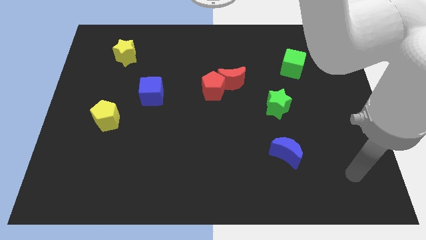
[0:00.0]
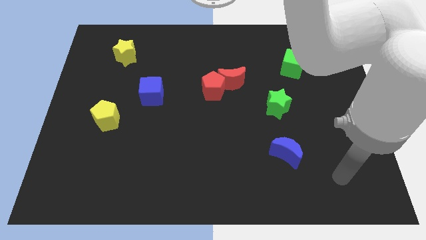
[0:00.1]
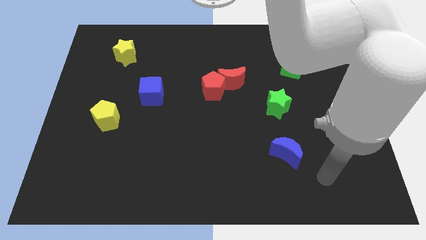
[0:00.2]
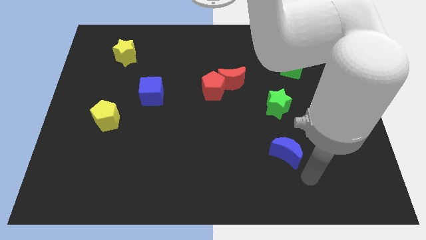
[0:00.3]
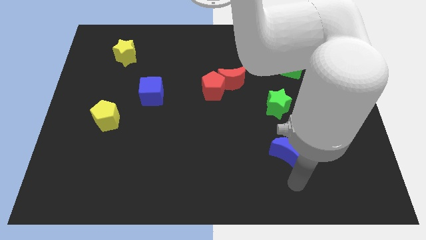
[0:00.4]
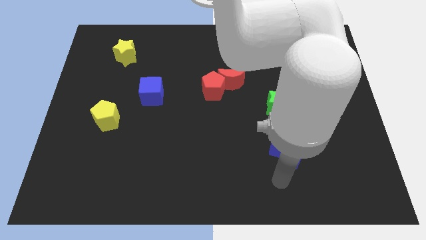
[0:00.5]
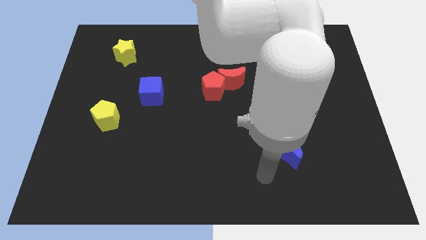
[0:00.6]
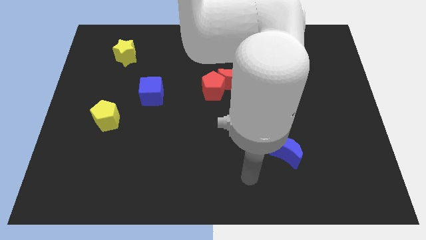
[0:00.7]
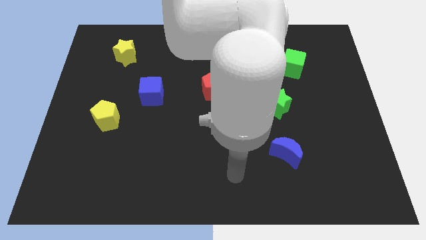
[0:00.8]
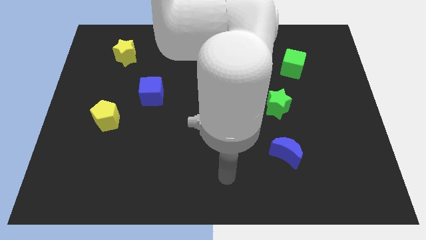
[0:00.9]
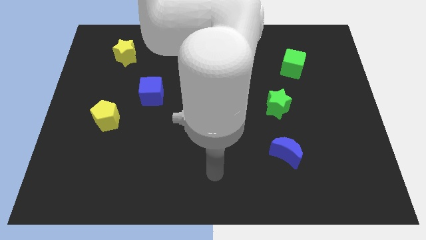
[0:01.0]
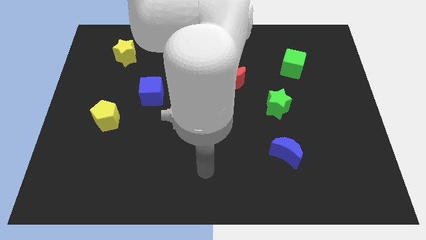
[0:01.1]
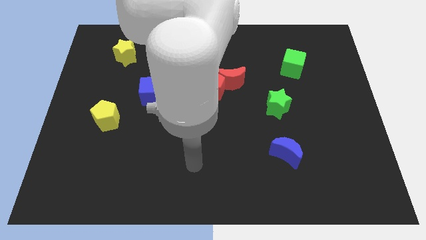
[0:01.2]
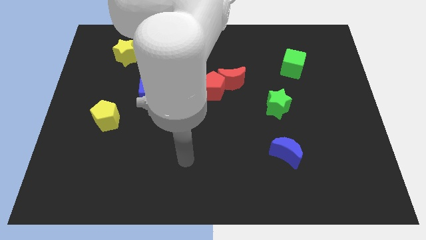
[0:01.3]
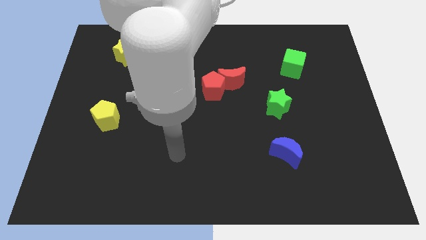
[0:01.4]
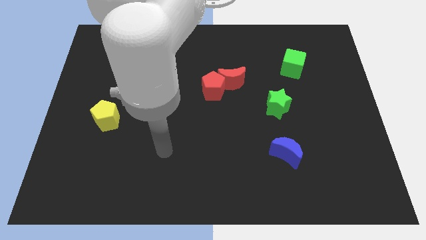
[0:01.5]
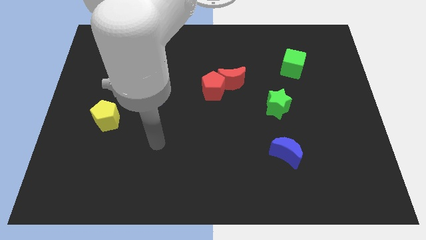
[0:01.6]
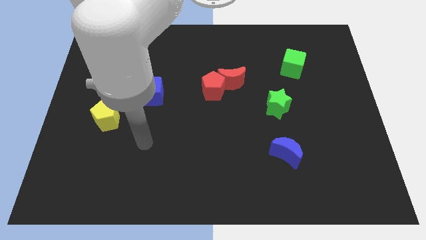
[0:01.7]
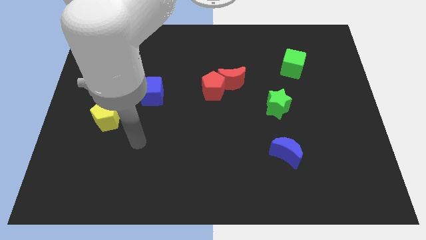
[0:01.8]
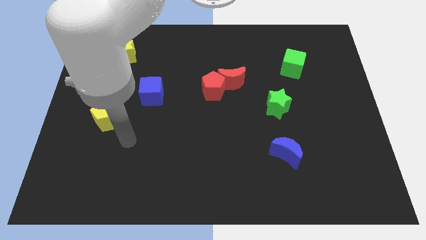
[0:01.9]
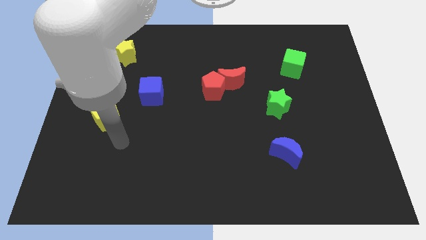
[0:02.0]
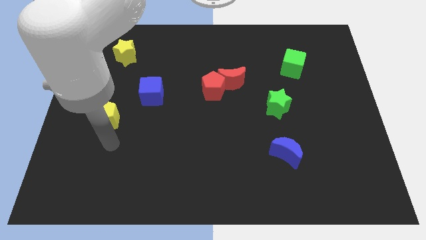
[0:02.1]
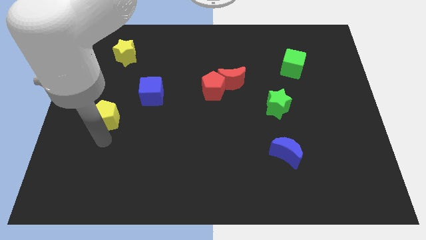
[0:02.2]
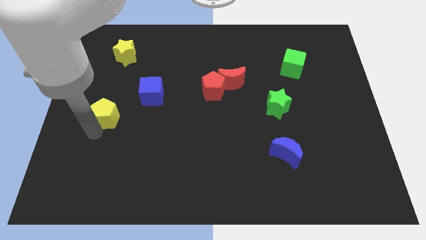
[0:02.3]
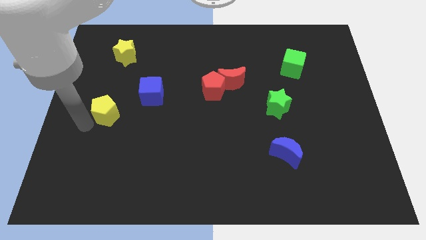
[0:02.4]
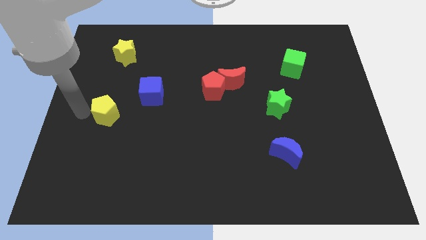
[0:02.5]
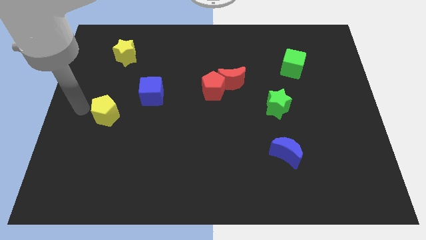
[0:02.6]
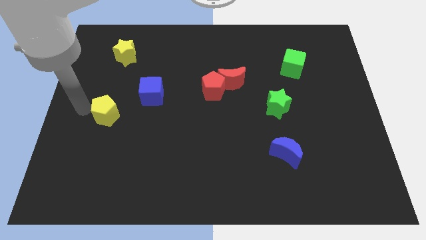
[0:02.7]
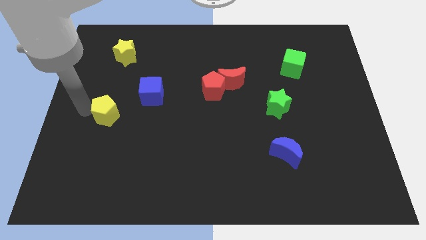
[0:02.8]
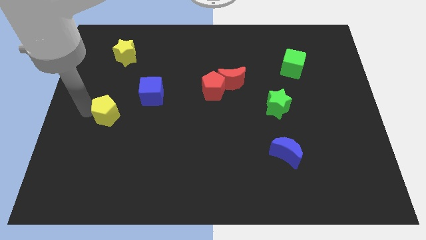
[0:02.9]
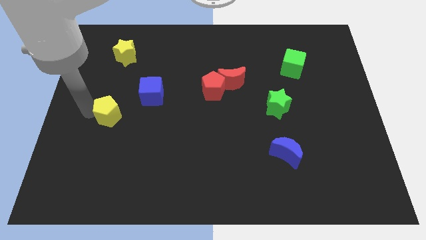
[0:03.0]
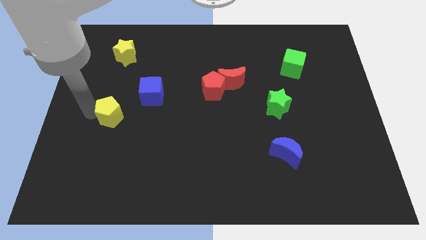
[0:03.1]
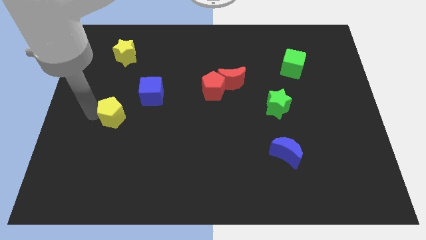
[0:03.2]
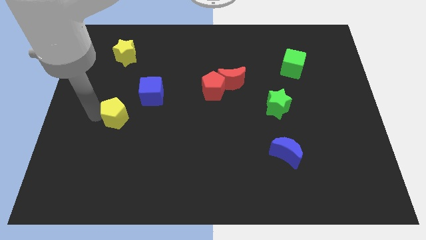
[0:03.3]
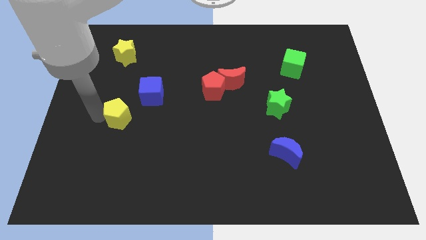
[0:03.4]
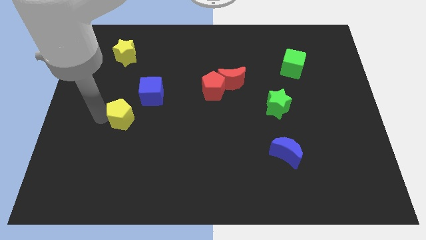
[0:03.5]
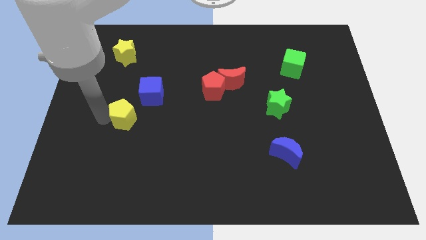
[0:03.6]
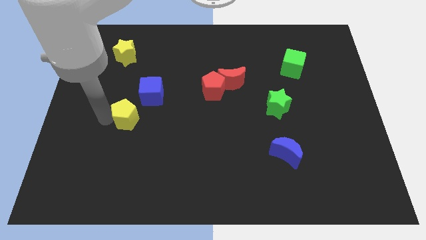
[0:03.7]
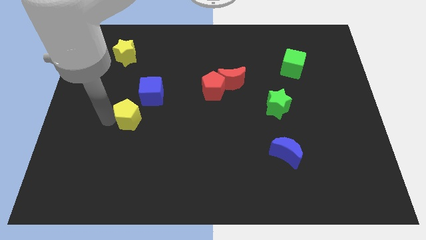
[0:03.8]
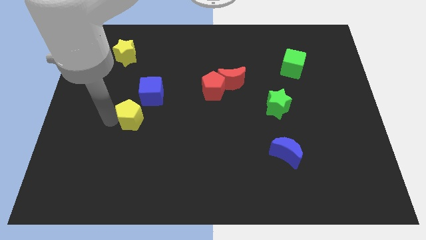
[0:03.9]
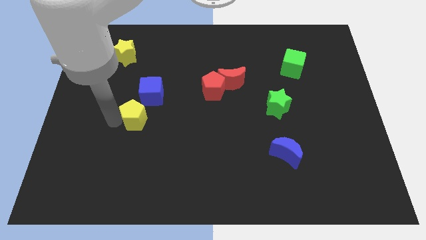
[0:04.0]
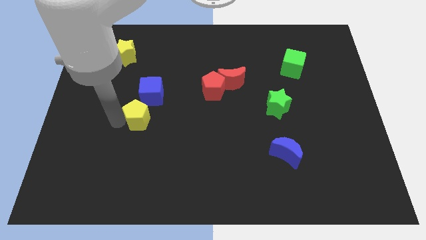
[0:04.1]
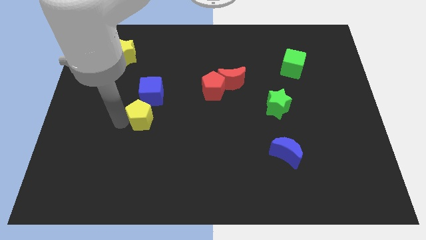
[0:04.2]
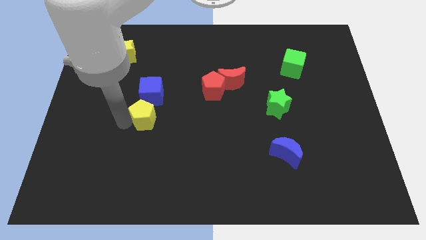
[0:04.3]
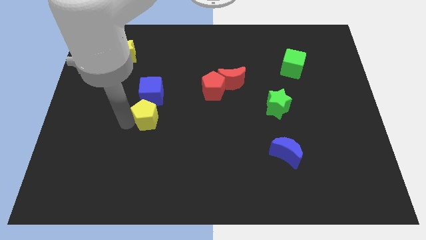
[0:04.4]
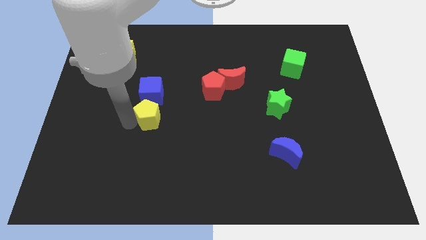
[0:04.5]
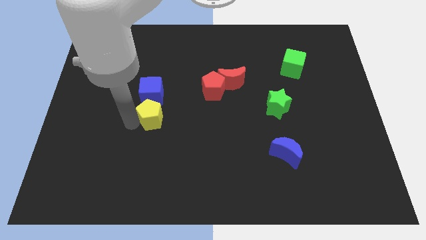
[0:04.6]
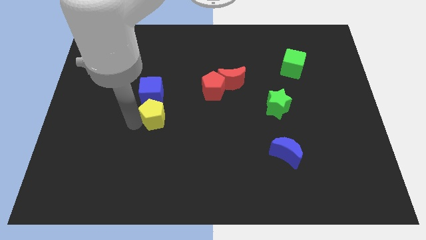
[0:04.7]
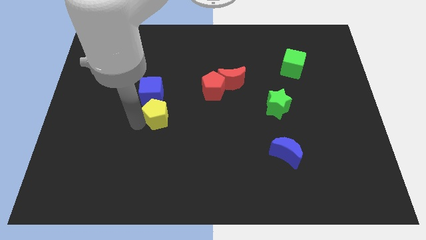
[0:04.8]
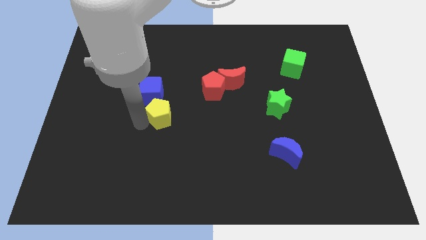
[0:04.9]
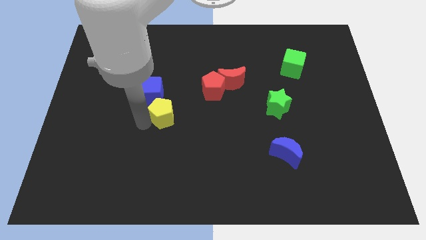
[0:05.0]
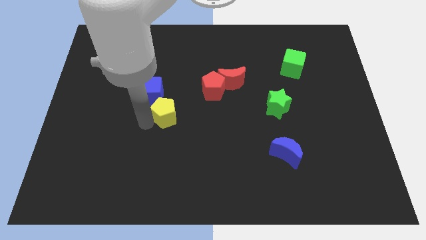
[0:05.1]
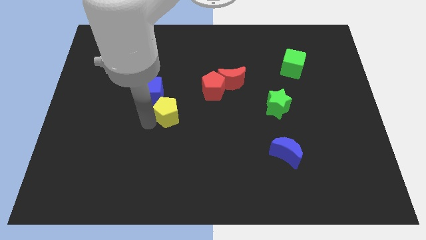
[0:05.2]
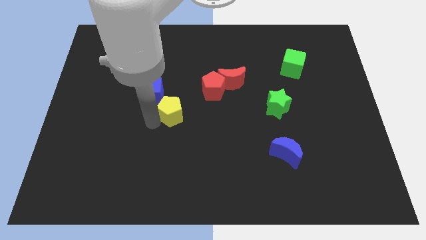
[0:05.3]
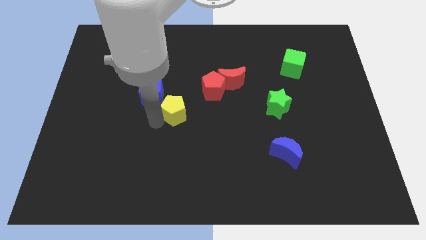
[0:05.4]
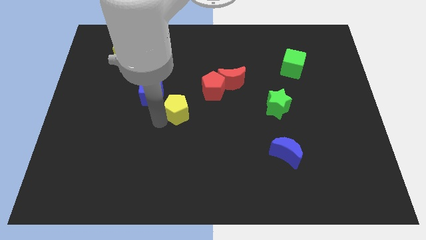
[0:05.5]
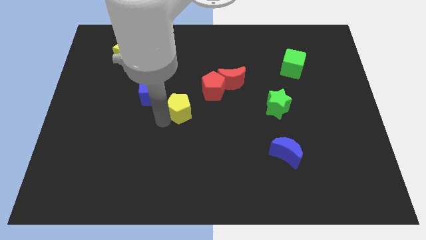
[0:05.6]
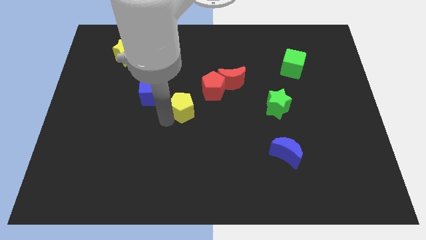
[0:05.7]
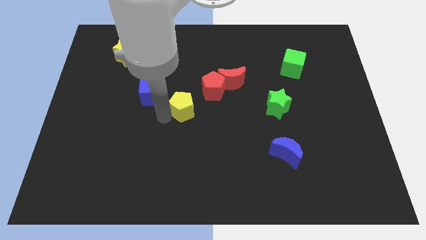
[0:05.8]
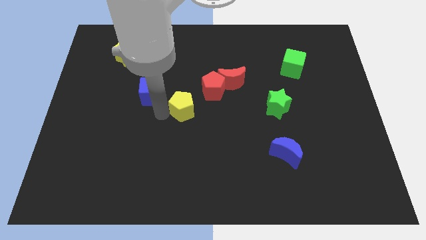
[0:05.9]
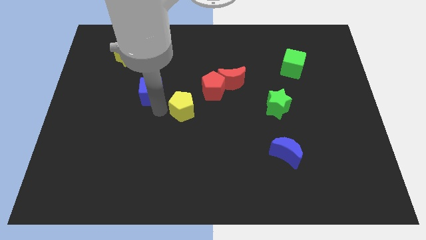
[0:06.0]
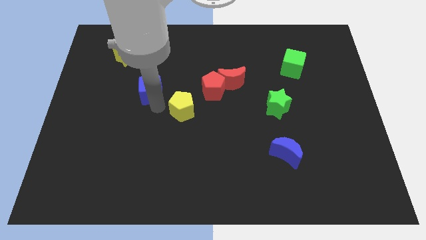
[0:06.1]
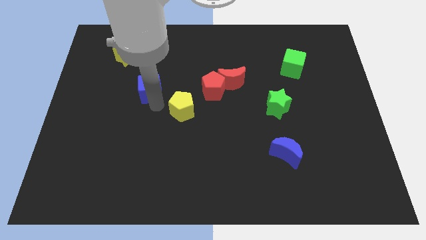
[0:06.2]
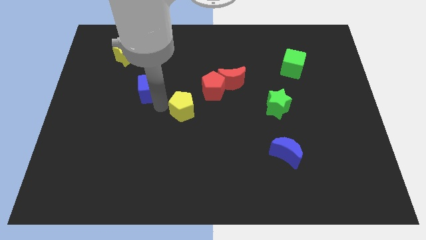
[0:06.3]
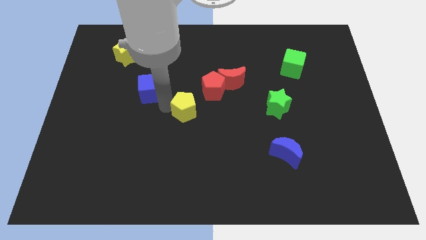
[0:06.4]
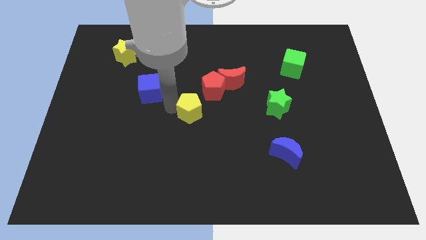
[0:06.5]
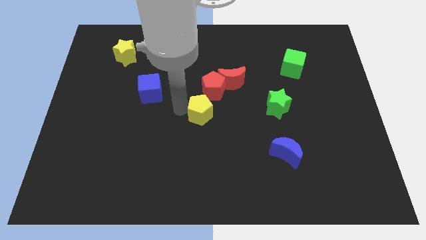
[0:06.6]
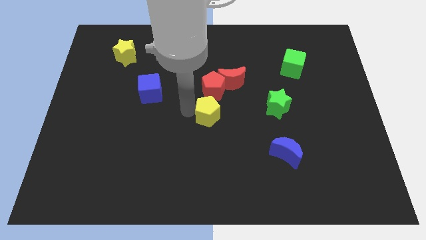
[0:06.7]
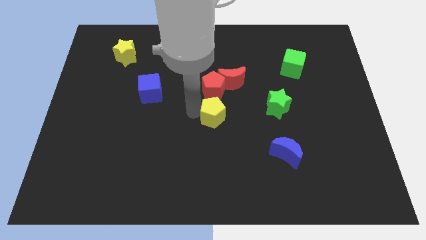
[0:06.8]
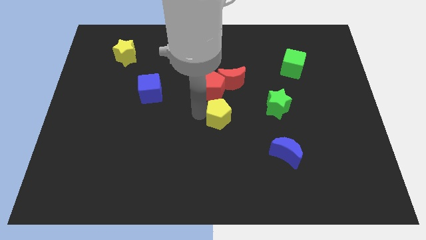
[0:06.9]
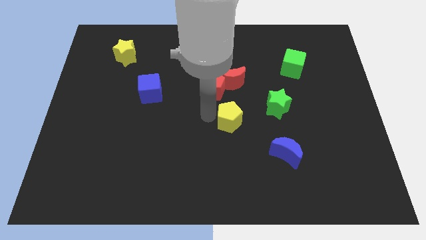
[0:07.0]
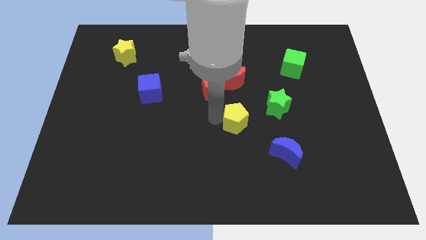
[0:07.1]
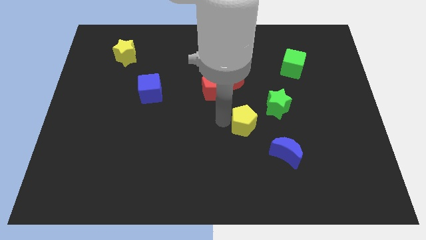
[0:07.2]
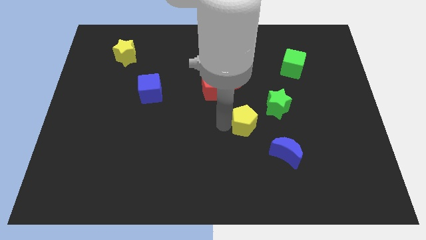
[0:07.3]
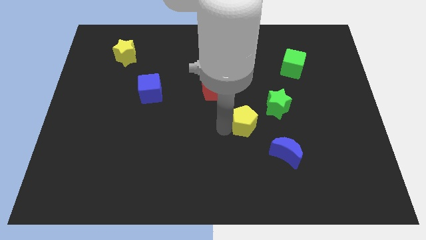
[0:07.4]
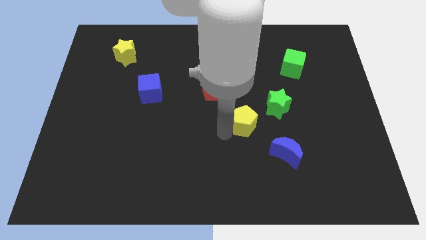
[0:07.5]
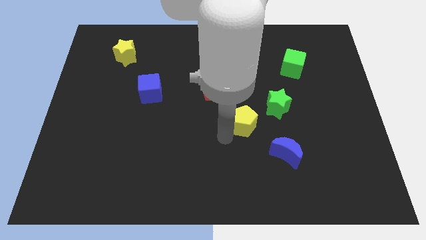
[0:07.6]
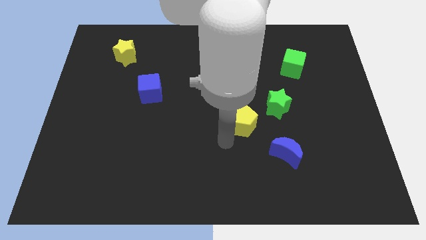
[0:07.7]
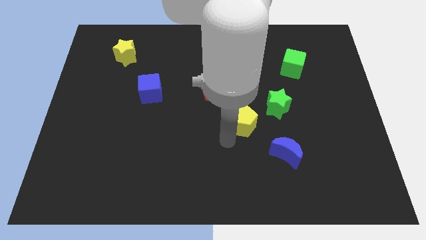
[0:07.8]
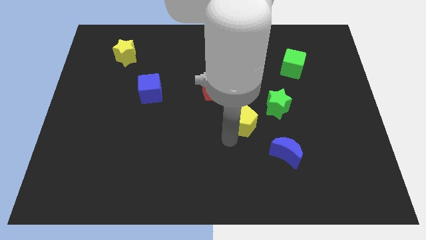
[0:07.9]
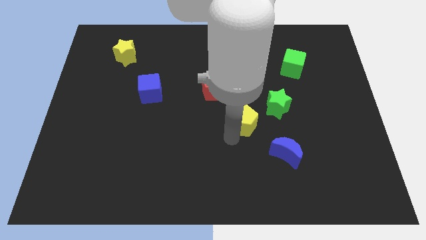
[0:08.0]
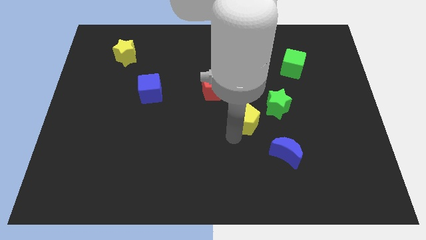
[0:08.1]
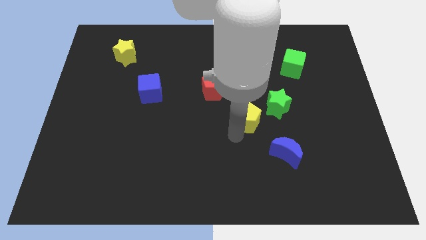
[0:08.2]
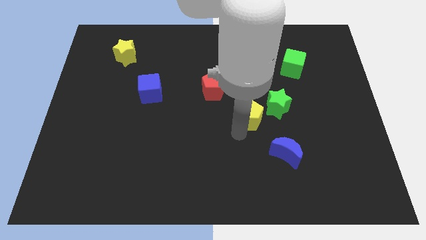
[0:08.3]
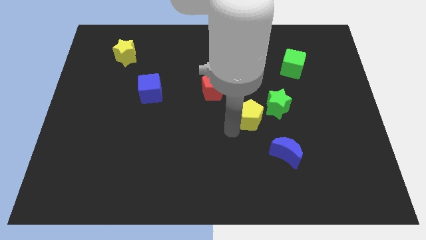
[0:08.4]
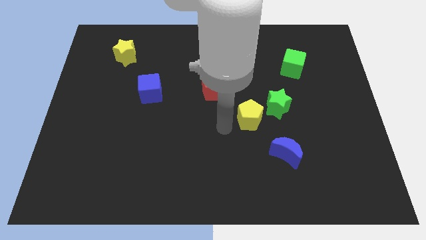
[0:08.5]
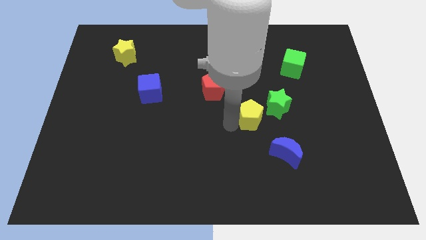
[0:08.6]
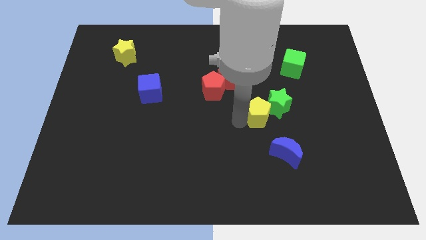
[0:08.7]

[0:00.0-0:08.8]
put the yellow pentagon to the green star
